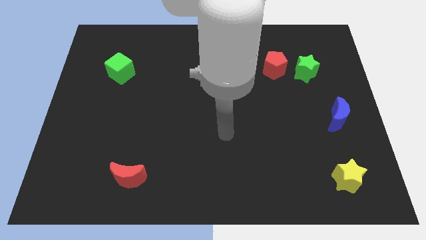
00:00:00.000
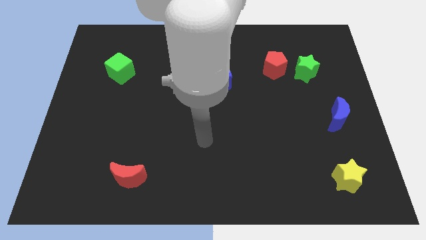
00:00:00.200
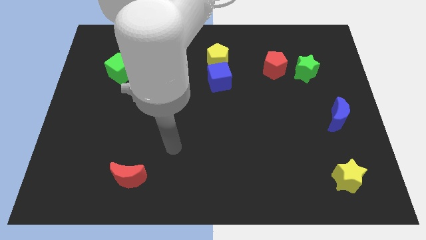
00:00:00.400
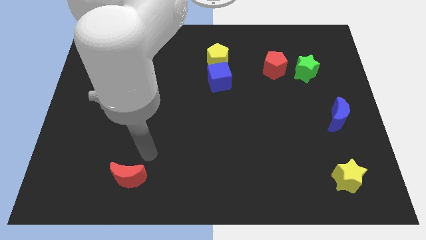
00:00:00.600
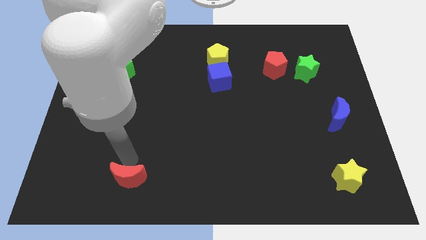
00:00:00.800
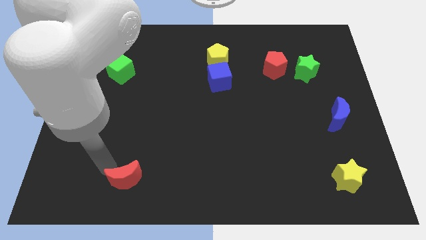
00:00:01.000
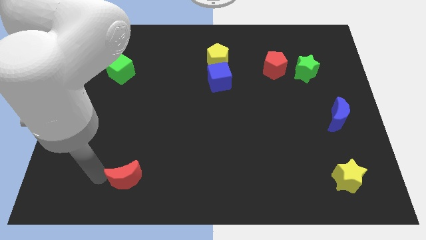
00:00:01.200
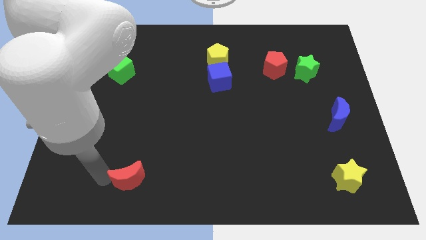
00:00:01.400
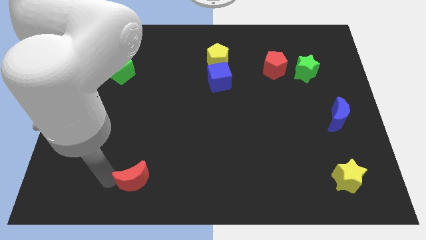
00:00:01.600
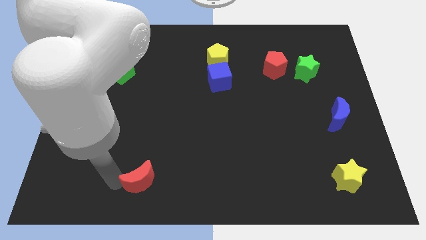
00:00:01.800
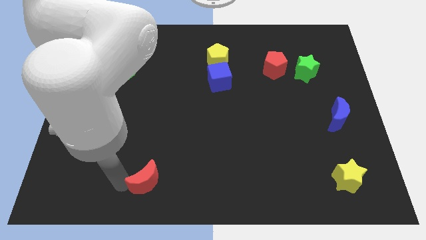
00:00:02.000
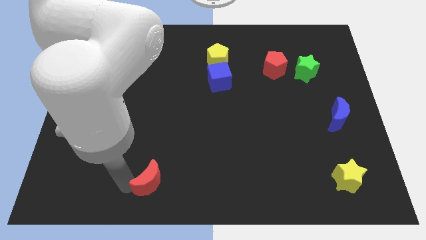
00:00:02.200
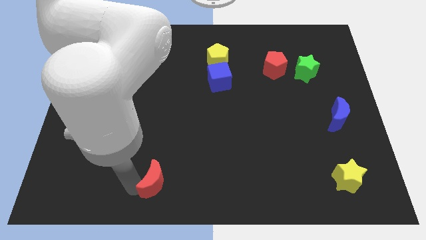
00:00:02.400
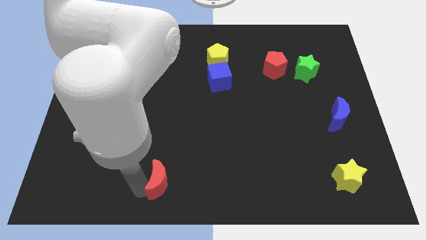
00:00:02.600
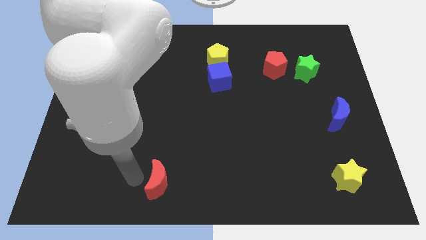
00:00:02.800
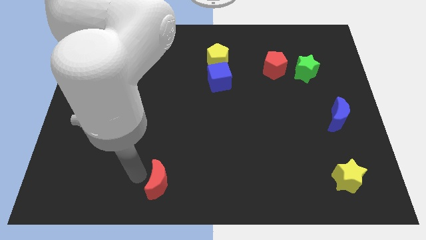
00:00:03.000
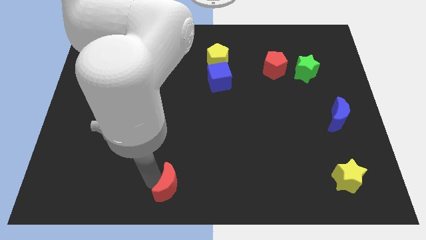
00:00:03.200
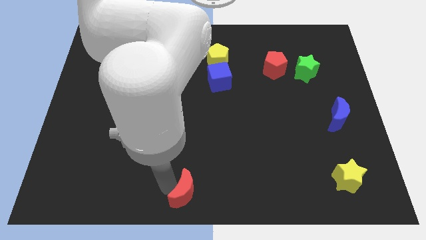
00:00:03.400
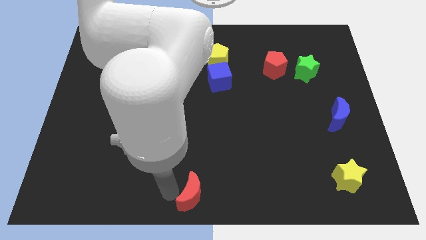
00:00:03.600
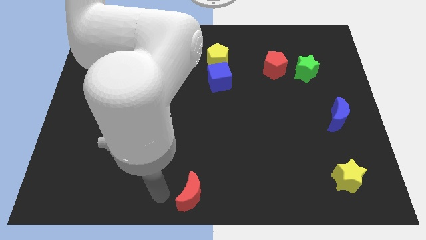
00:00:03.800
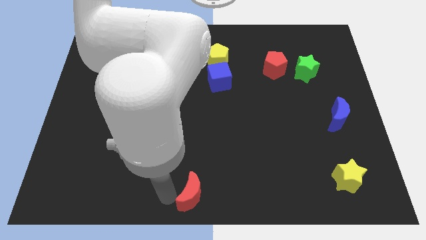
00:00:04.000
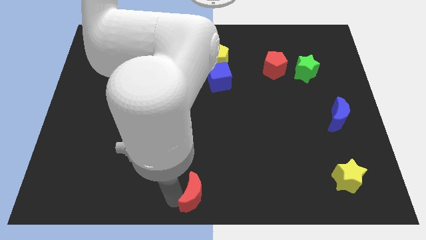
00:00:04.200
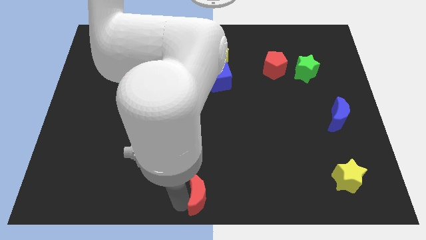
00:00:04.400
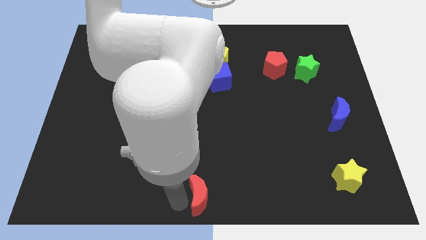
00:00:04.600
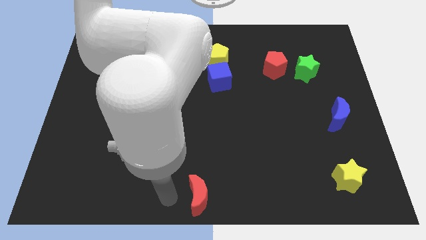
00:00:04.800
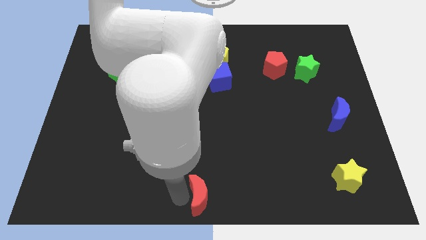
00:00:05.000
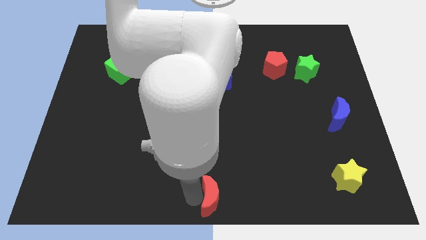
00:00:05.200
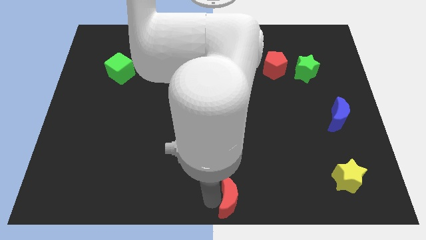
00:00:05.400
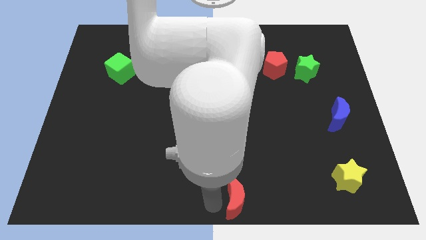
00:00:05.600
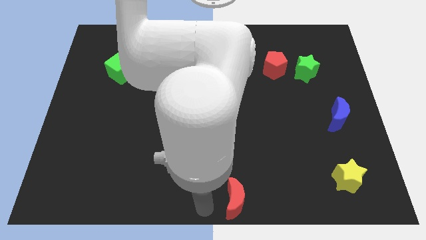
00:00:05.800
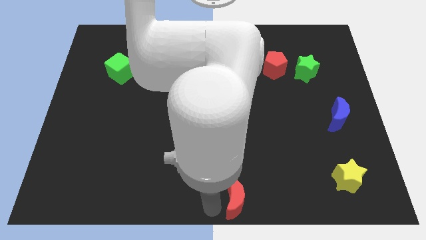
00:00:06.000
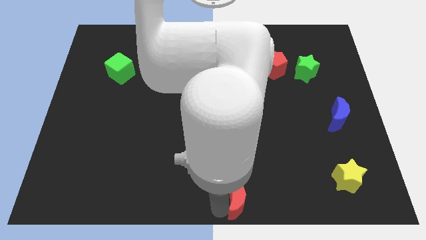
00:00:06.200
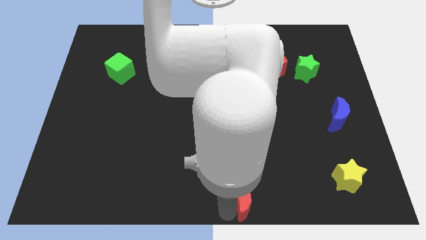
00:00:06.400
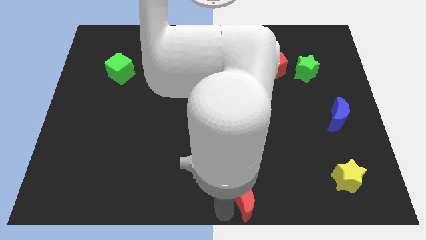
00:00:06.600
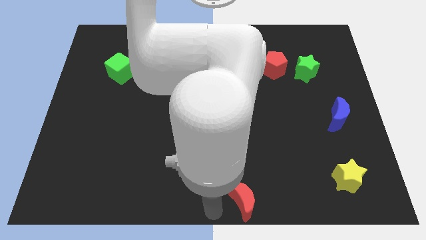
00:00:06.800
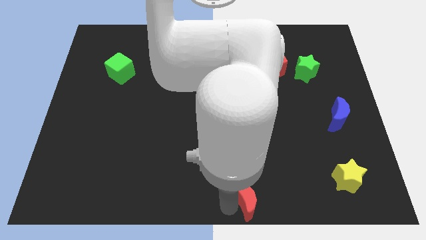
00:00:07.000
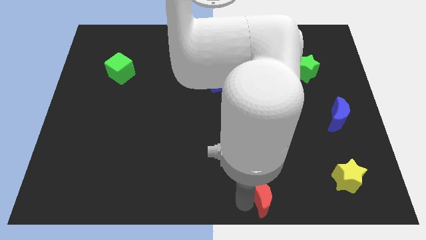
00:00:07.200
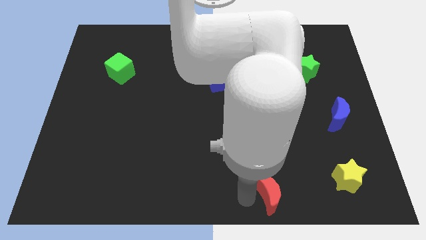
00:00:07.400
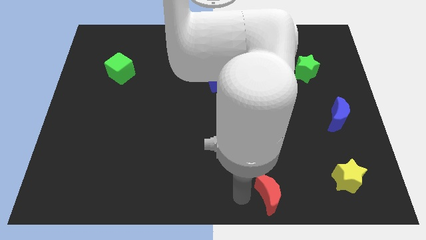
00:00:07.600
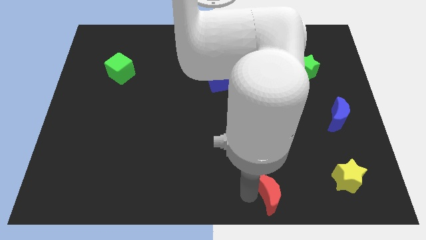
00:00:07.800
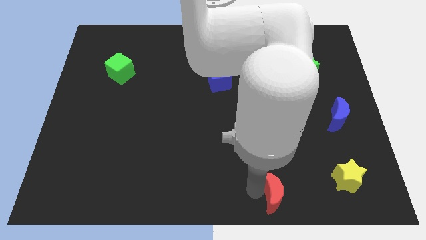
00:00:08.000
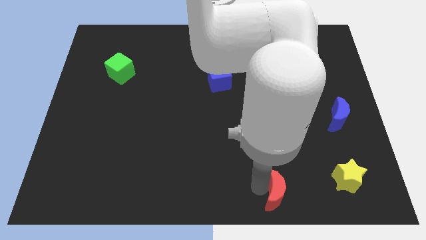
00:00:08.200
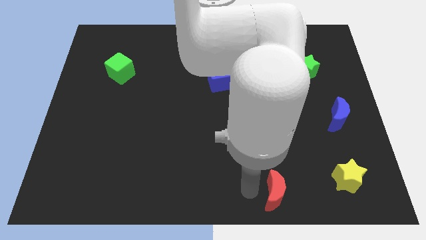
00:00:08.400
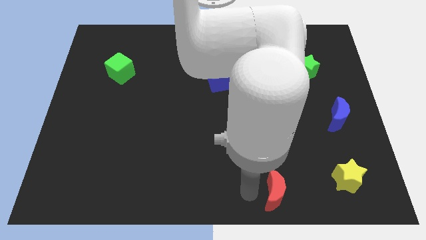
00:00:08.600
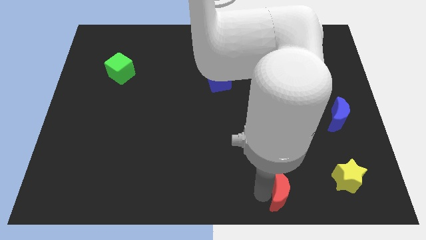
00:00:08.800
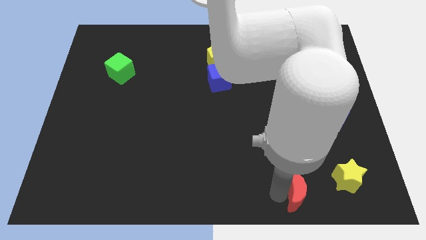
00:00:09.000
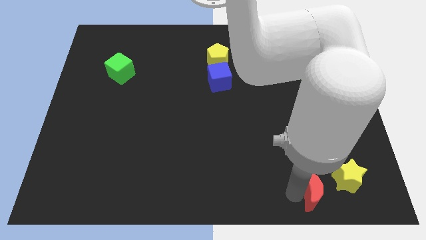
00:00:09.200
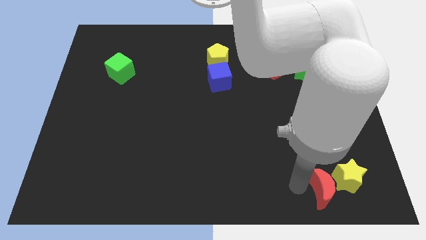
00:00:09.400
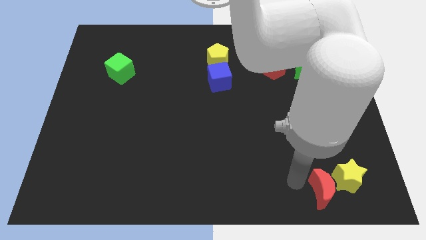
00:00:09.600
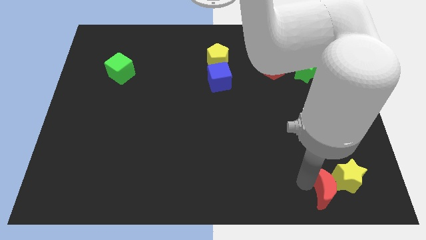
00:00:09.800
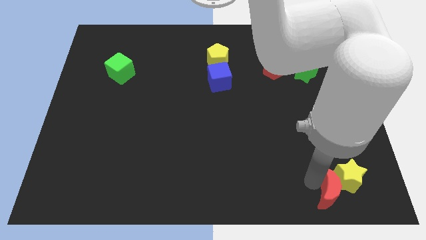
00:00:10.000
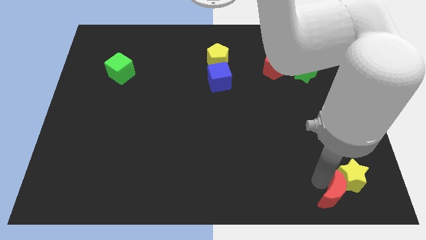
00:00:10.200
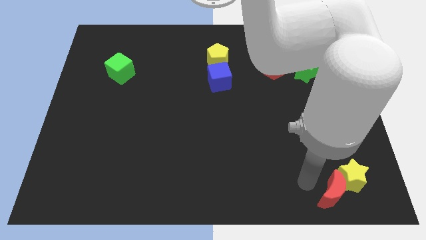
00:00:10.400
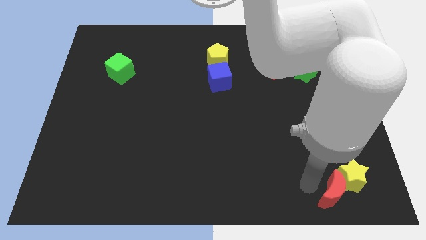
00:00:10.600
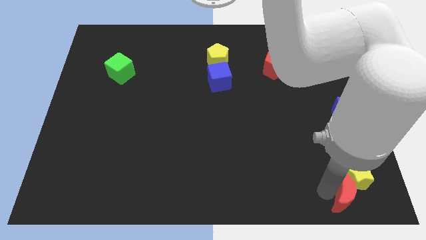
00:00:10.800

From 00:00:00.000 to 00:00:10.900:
slide the red moon to the bottom right
